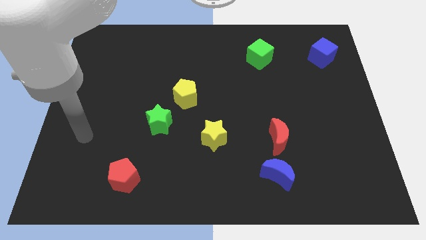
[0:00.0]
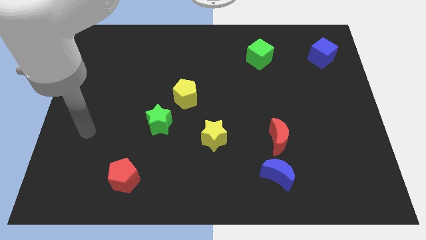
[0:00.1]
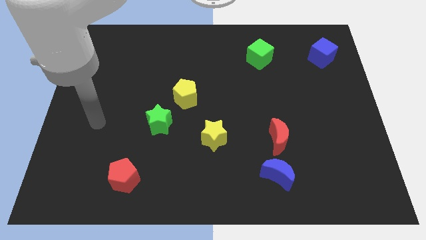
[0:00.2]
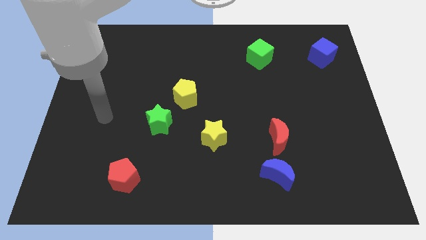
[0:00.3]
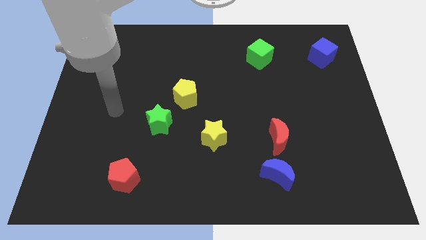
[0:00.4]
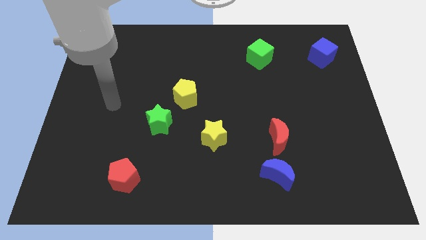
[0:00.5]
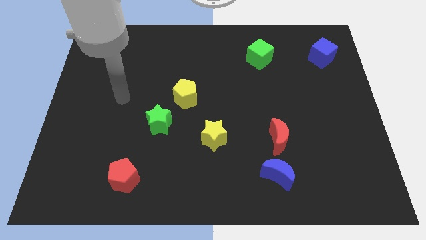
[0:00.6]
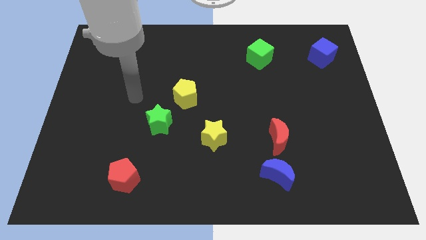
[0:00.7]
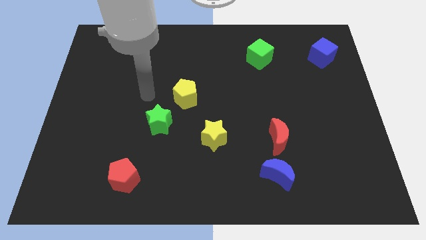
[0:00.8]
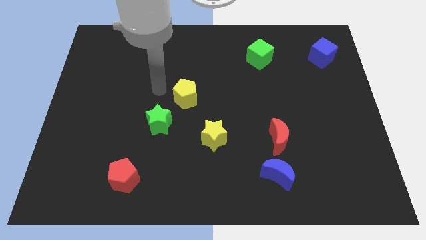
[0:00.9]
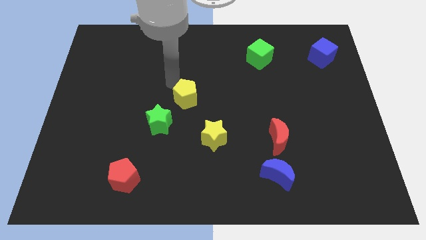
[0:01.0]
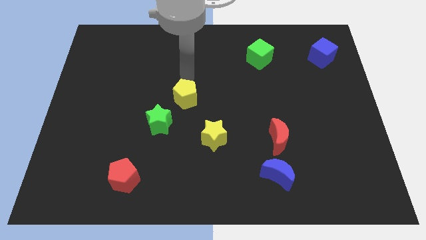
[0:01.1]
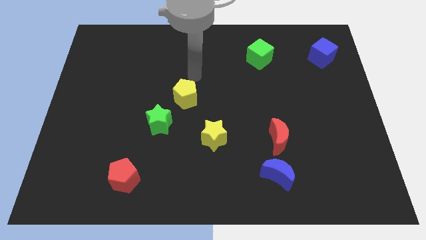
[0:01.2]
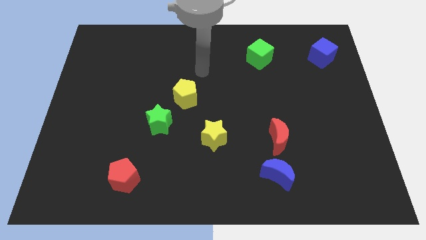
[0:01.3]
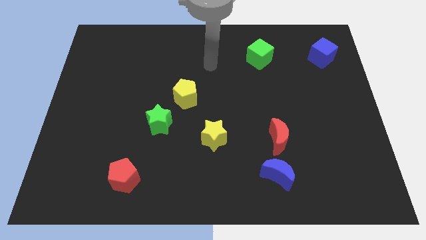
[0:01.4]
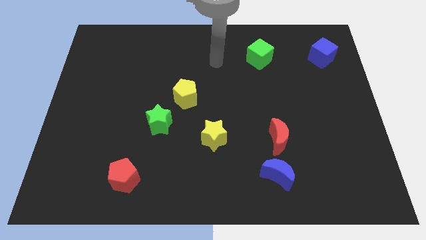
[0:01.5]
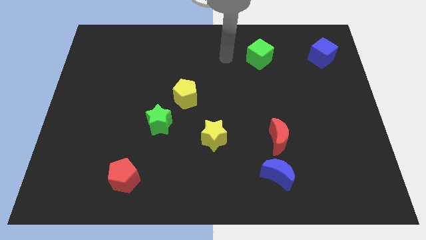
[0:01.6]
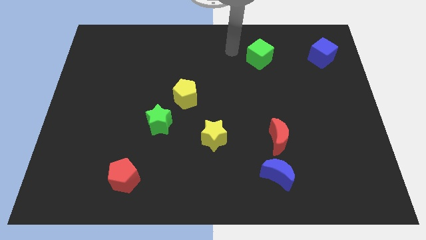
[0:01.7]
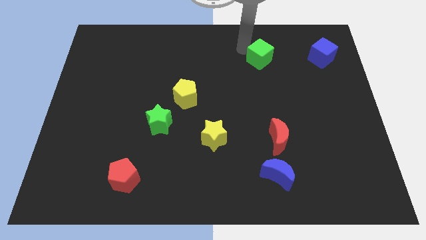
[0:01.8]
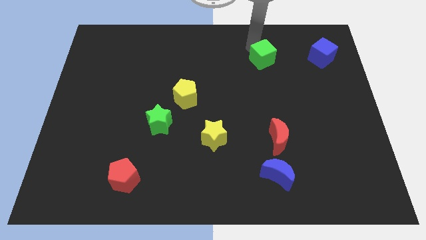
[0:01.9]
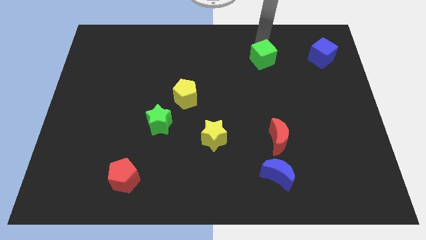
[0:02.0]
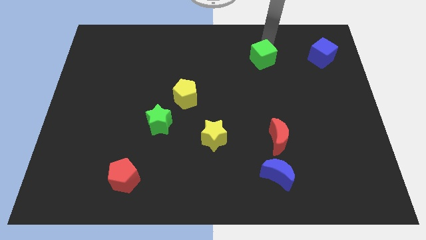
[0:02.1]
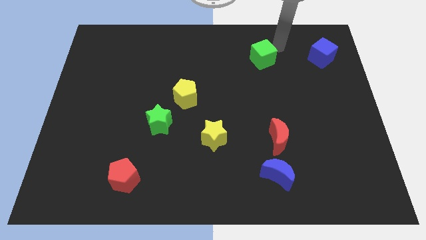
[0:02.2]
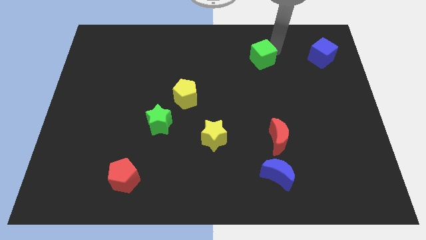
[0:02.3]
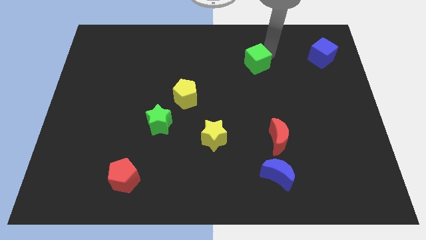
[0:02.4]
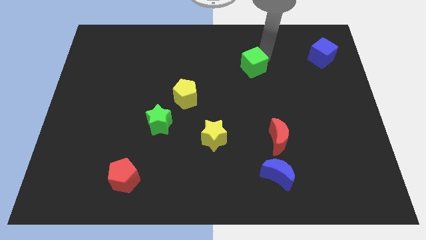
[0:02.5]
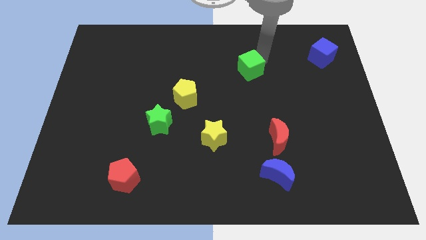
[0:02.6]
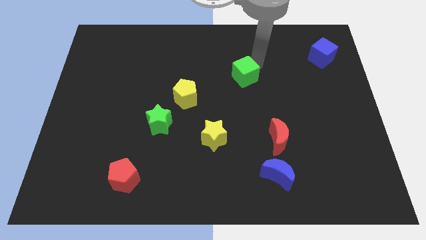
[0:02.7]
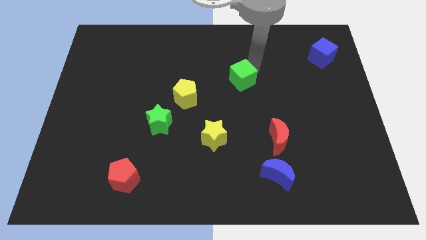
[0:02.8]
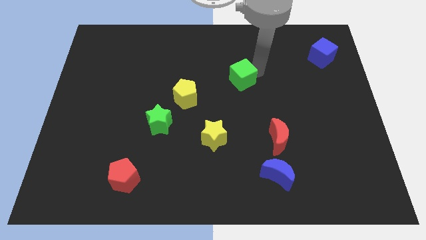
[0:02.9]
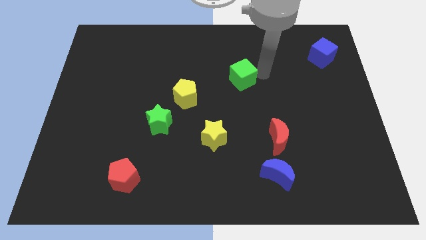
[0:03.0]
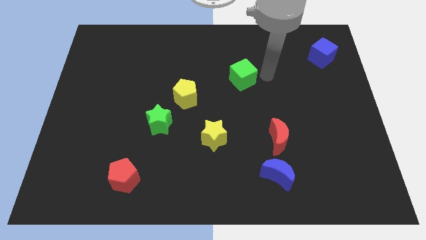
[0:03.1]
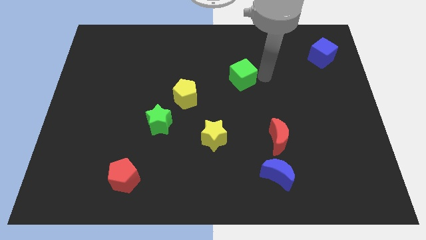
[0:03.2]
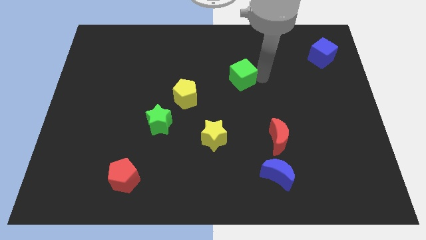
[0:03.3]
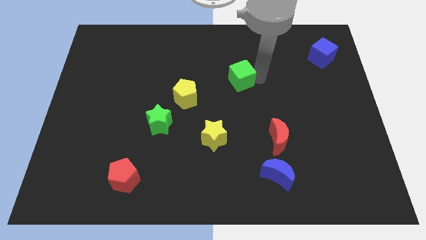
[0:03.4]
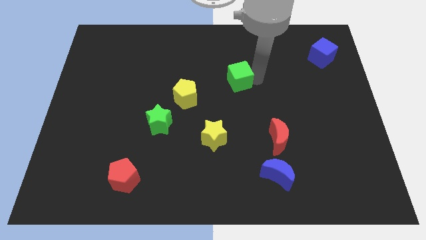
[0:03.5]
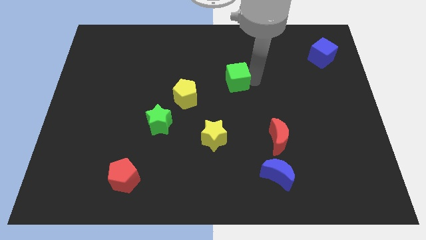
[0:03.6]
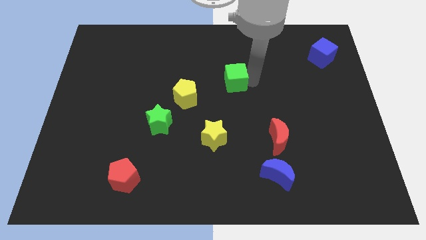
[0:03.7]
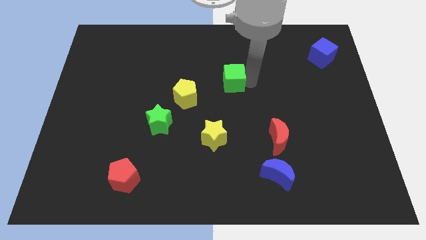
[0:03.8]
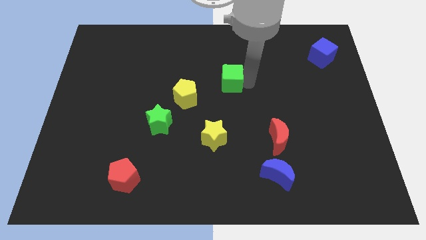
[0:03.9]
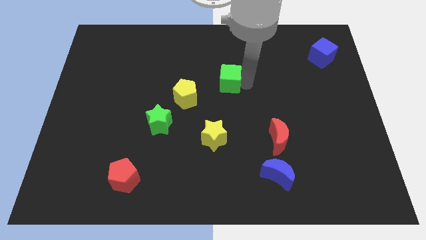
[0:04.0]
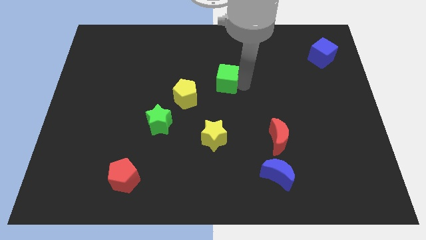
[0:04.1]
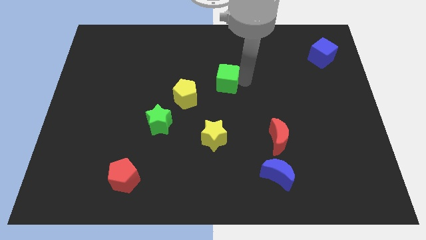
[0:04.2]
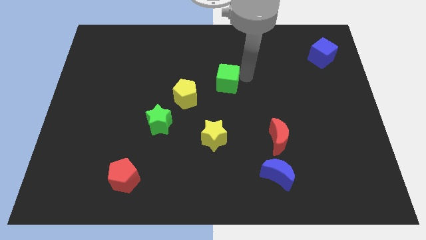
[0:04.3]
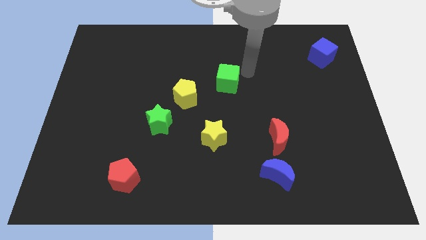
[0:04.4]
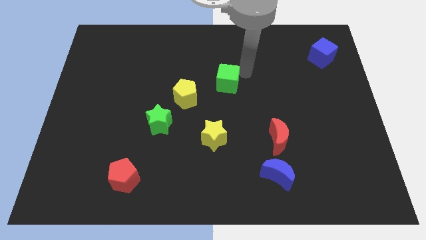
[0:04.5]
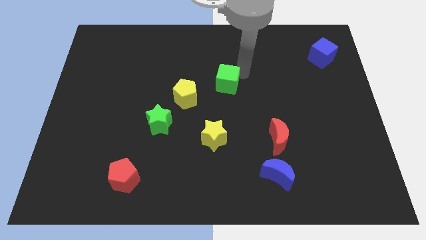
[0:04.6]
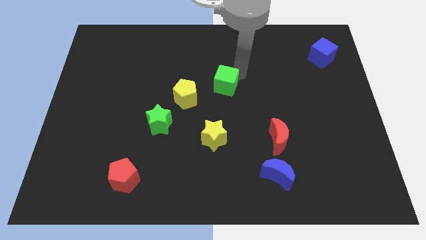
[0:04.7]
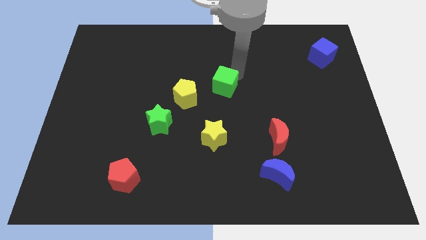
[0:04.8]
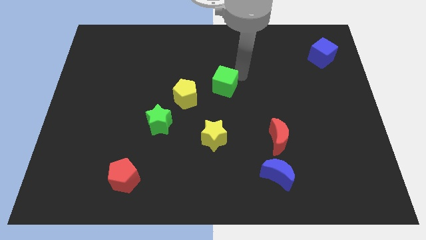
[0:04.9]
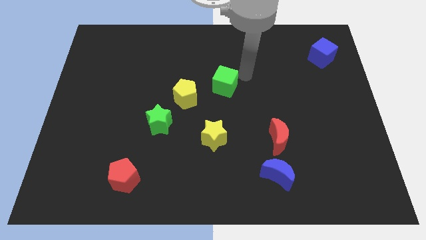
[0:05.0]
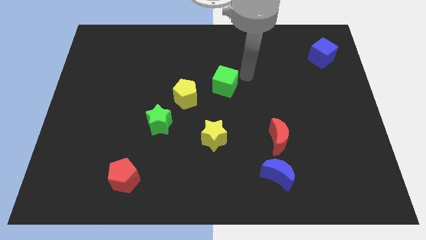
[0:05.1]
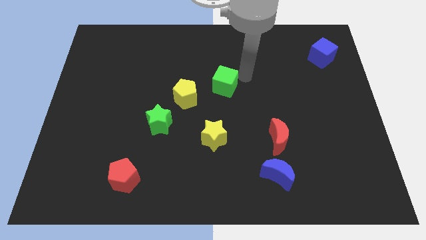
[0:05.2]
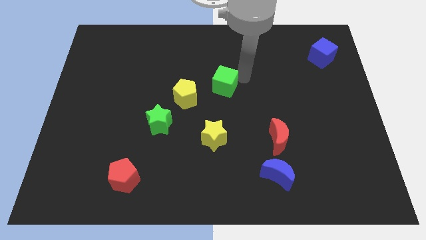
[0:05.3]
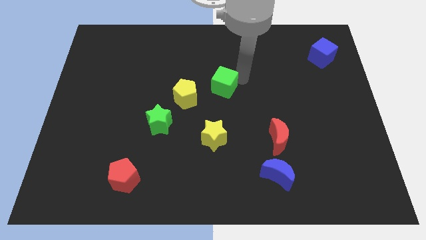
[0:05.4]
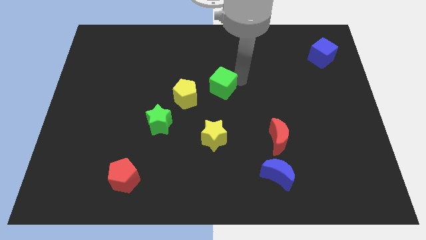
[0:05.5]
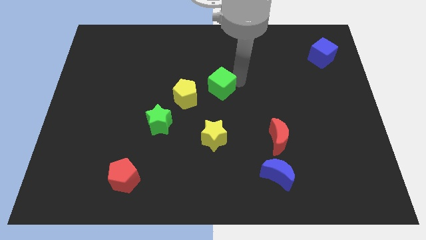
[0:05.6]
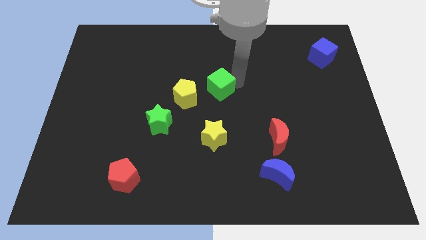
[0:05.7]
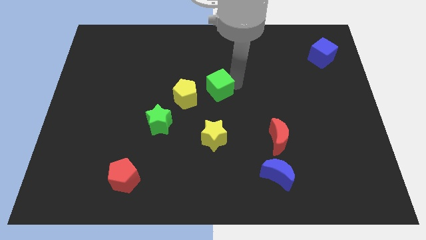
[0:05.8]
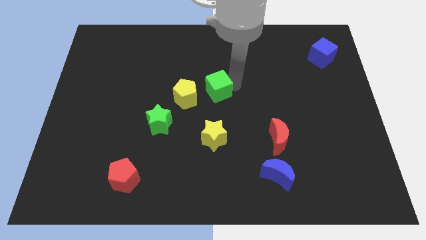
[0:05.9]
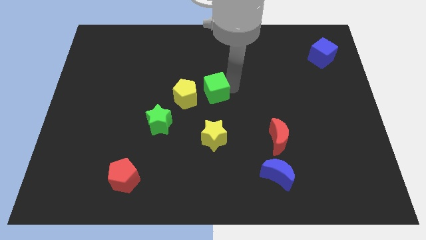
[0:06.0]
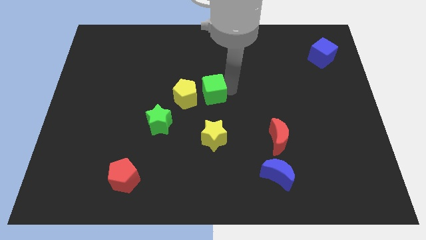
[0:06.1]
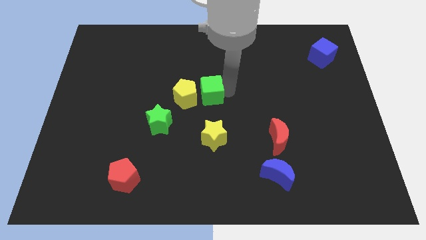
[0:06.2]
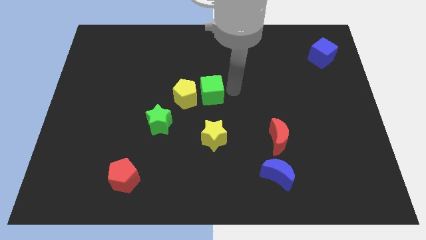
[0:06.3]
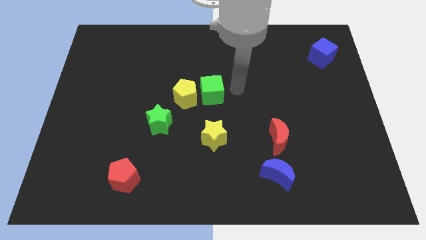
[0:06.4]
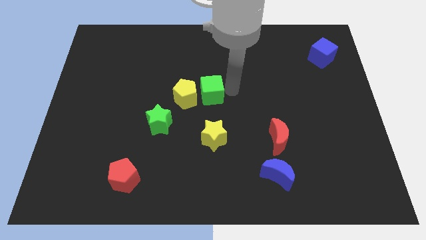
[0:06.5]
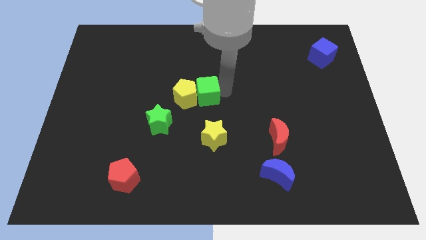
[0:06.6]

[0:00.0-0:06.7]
put the green cube to the yellow pentagon
